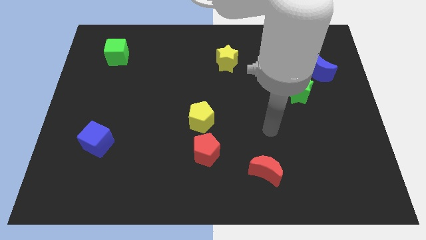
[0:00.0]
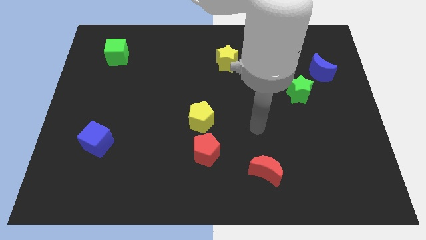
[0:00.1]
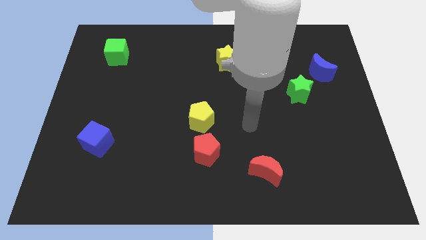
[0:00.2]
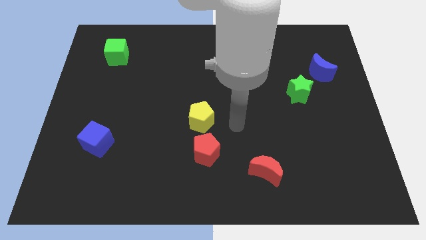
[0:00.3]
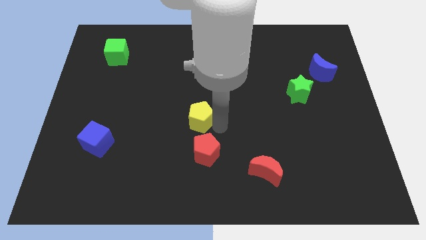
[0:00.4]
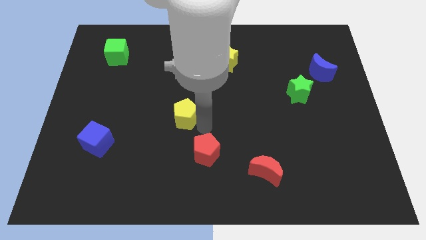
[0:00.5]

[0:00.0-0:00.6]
pull the red pentagon apart from the yellow pentagon

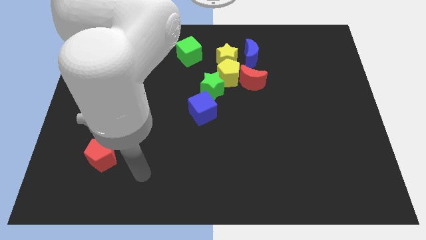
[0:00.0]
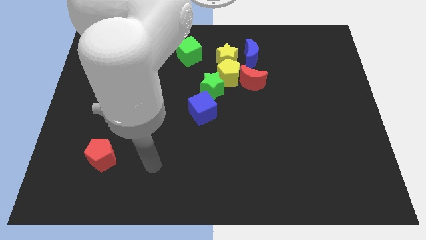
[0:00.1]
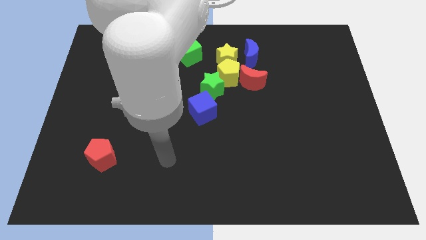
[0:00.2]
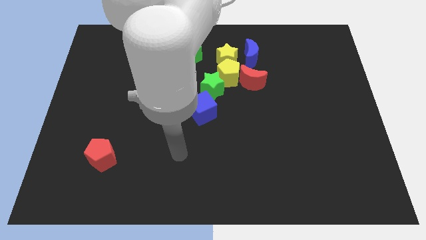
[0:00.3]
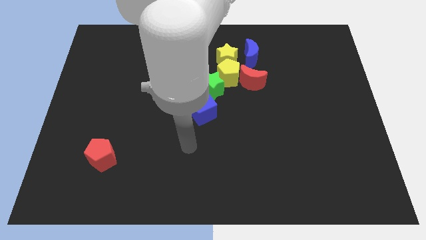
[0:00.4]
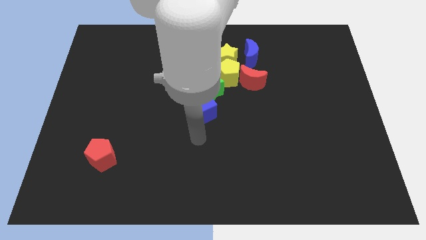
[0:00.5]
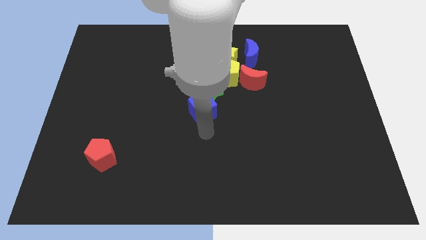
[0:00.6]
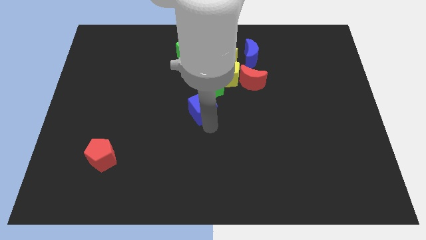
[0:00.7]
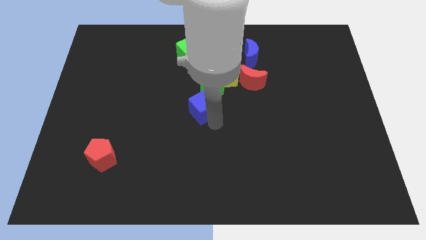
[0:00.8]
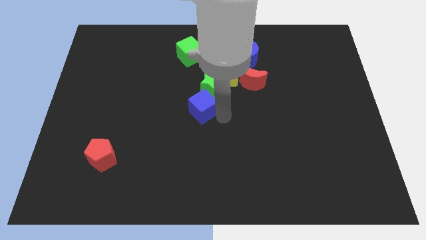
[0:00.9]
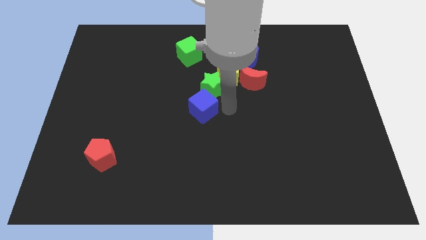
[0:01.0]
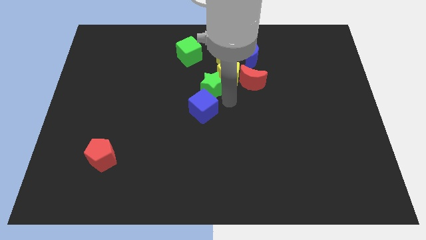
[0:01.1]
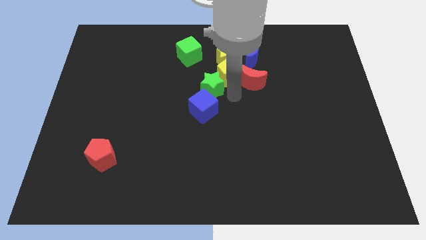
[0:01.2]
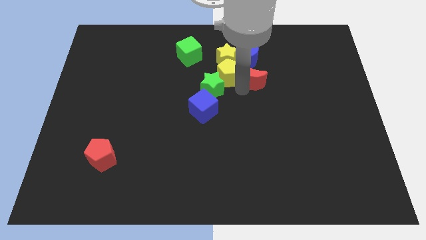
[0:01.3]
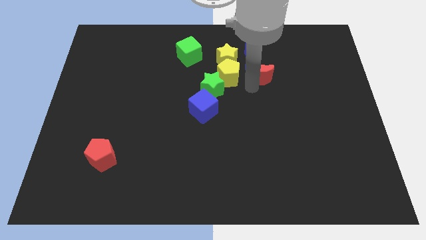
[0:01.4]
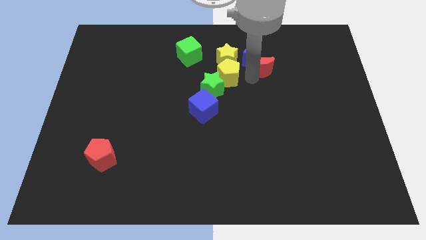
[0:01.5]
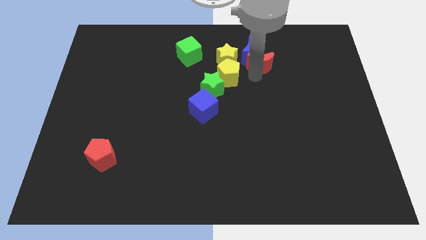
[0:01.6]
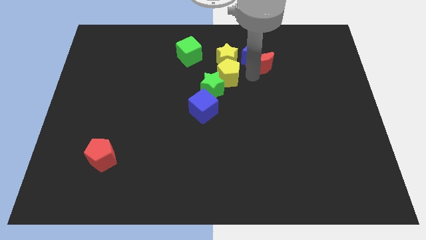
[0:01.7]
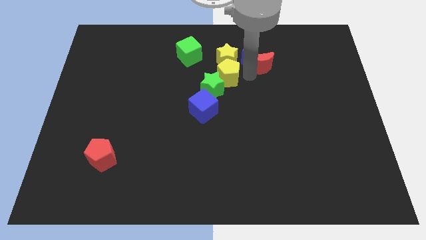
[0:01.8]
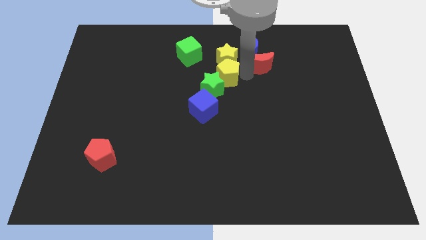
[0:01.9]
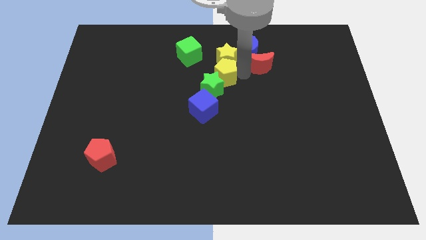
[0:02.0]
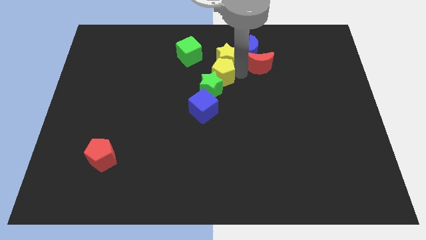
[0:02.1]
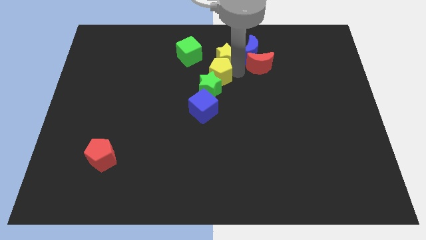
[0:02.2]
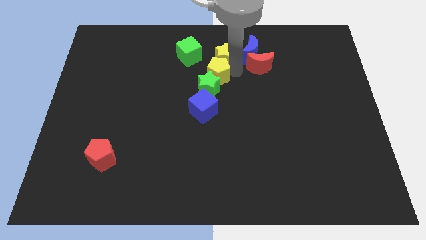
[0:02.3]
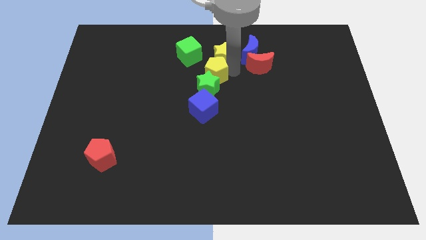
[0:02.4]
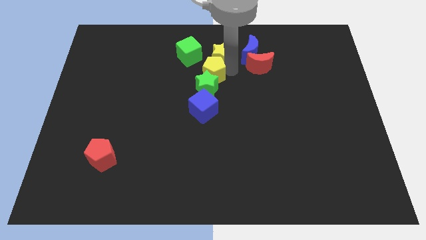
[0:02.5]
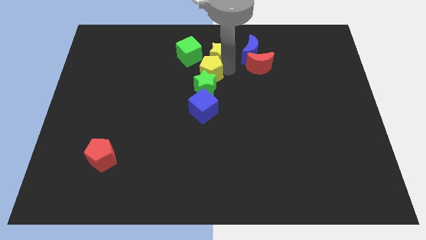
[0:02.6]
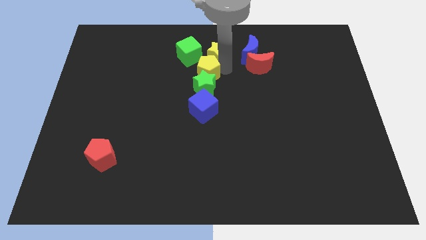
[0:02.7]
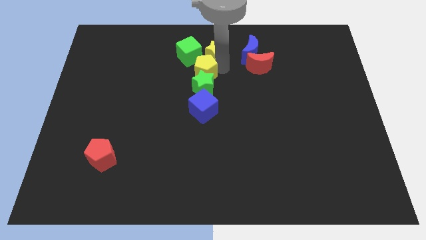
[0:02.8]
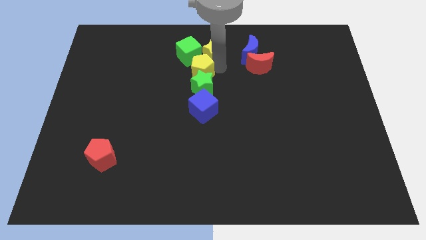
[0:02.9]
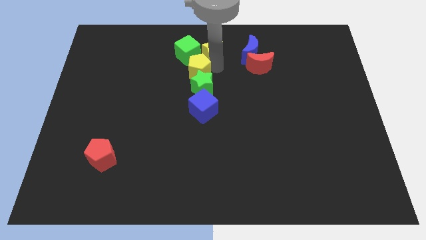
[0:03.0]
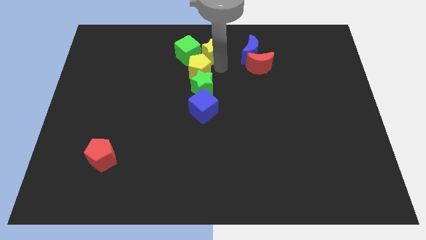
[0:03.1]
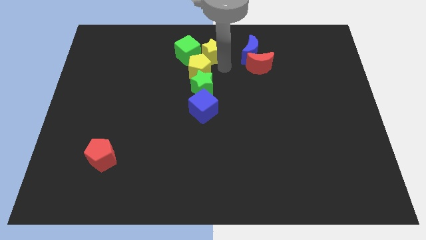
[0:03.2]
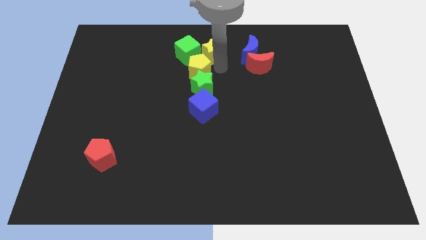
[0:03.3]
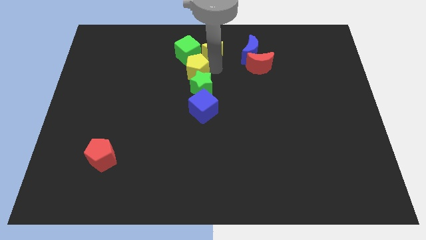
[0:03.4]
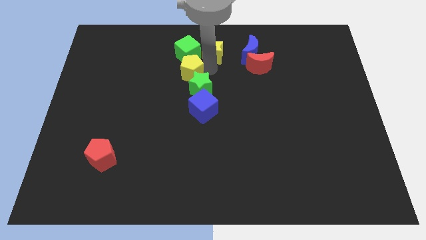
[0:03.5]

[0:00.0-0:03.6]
pull the yellow pentagon apart from the clump

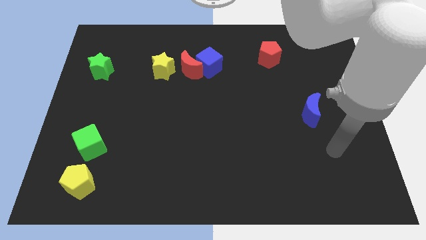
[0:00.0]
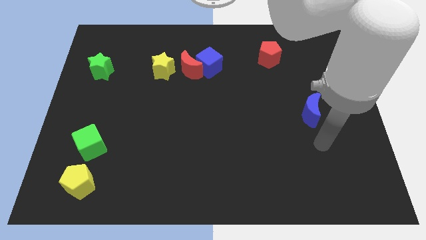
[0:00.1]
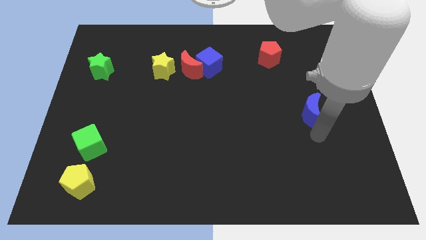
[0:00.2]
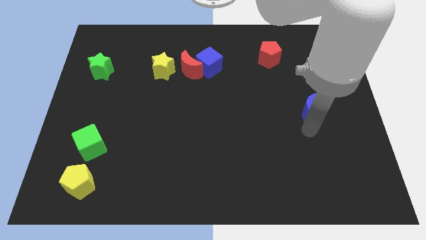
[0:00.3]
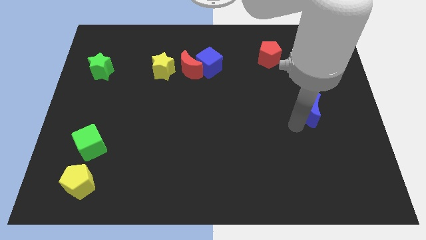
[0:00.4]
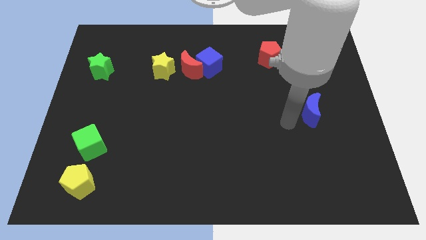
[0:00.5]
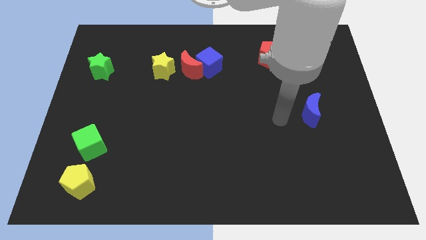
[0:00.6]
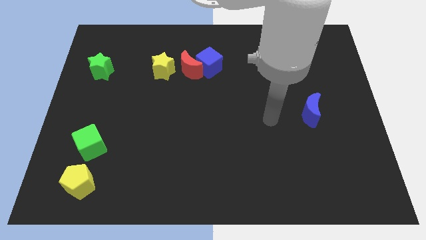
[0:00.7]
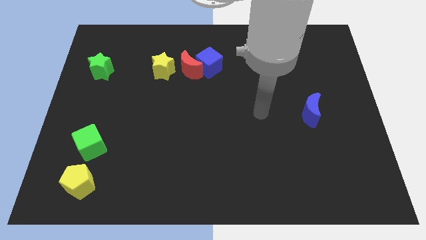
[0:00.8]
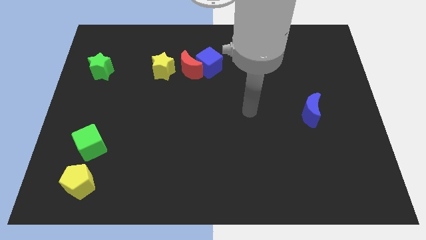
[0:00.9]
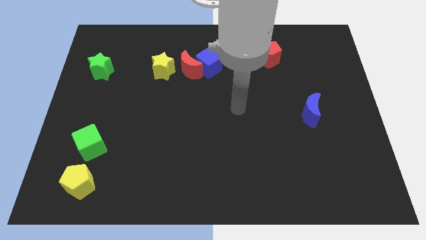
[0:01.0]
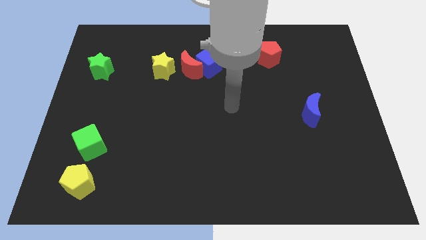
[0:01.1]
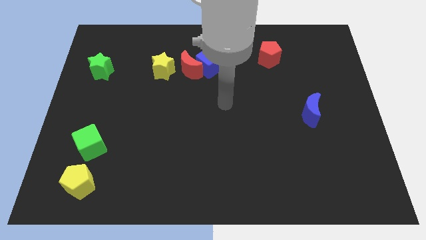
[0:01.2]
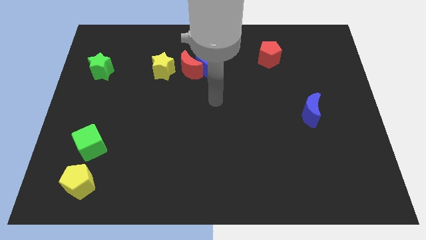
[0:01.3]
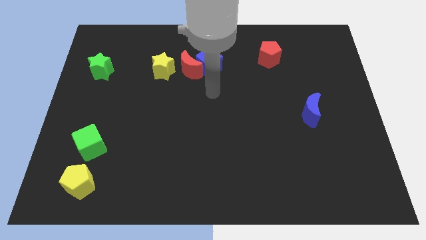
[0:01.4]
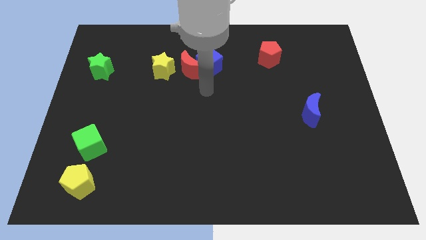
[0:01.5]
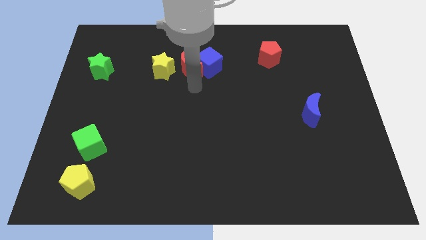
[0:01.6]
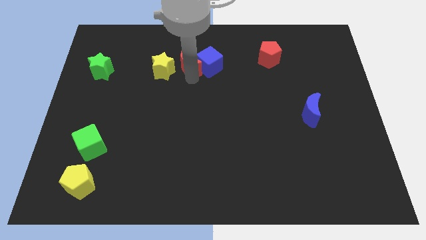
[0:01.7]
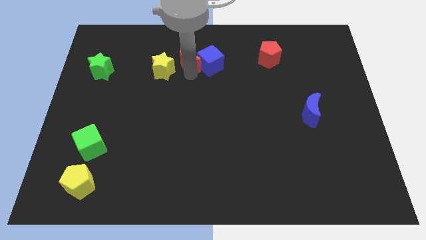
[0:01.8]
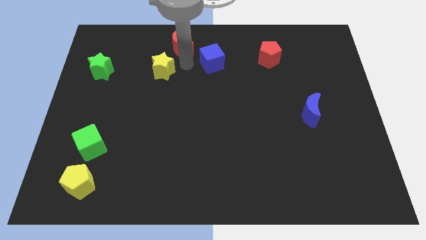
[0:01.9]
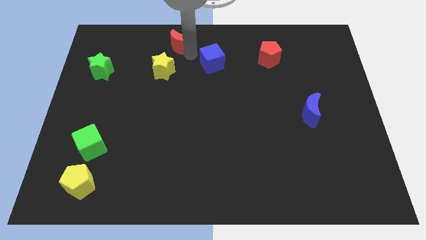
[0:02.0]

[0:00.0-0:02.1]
pull the blue cube apart from the red moon

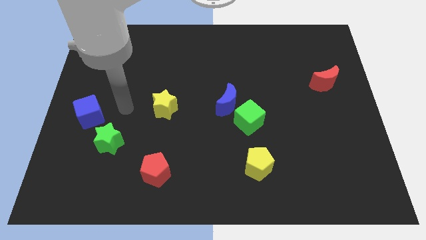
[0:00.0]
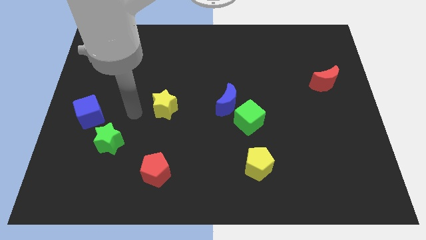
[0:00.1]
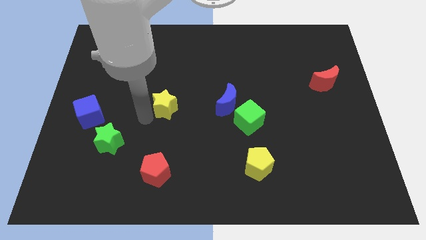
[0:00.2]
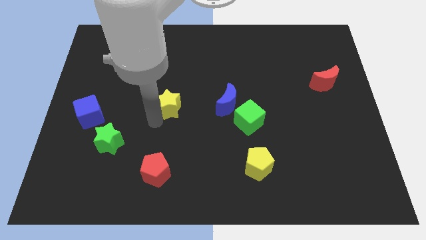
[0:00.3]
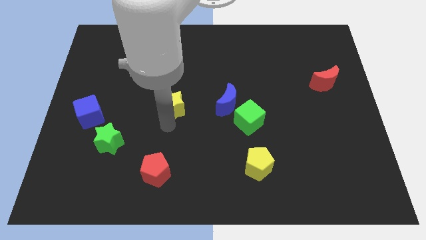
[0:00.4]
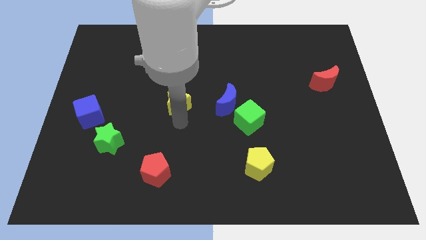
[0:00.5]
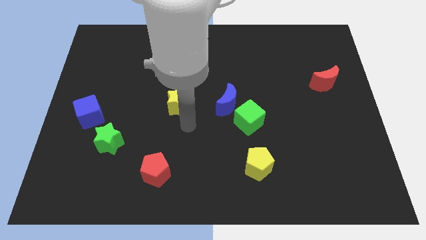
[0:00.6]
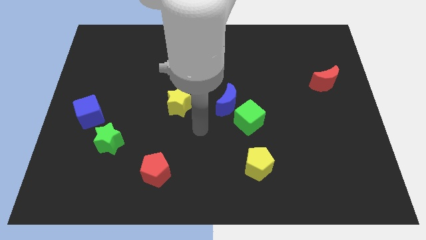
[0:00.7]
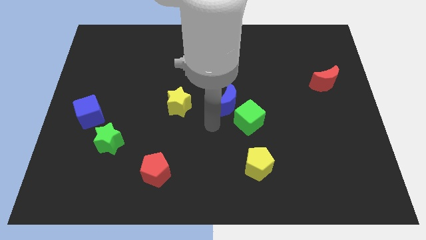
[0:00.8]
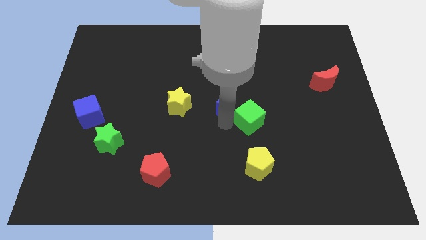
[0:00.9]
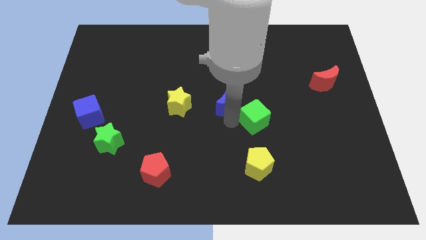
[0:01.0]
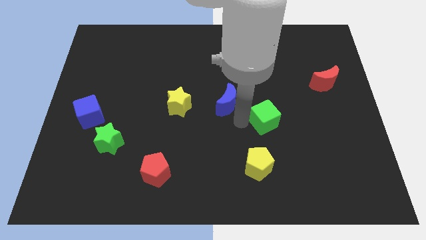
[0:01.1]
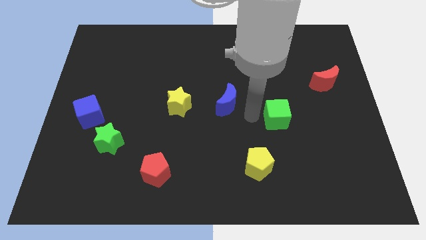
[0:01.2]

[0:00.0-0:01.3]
separate the blue moon from the green cube

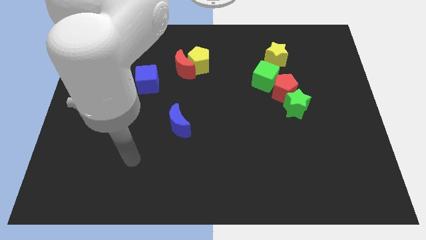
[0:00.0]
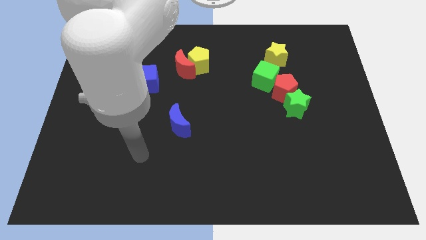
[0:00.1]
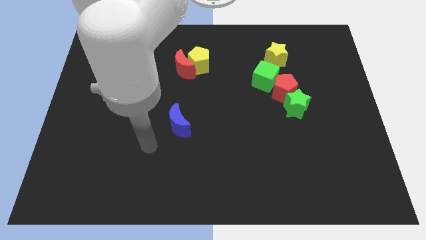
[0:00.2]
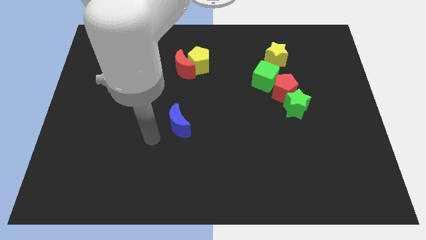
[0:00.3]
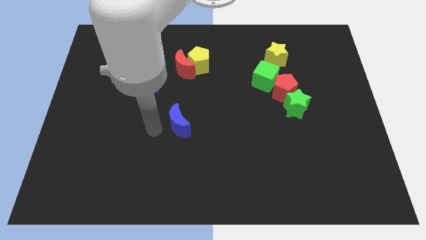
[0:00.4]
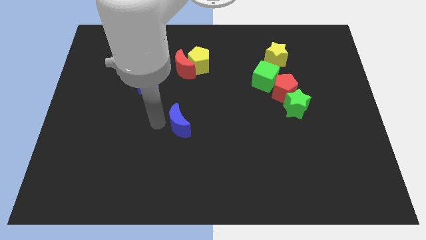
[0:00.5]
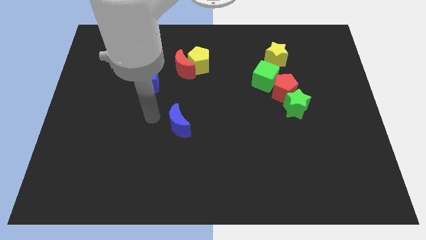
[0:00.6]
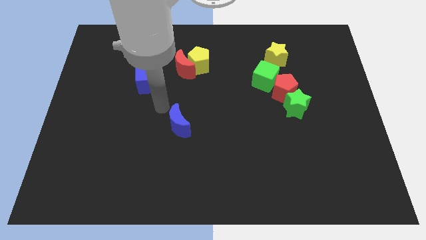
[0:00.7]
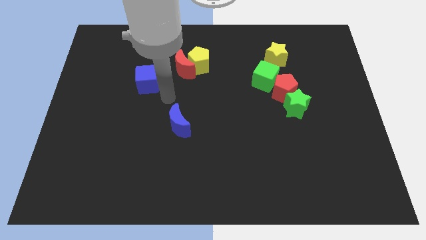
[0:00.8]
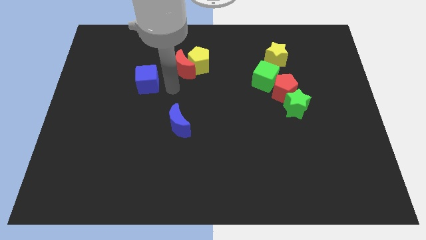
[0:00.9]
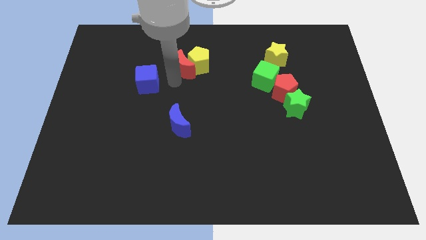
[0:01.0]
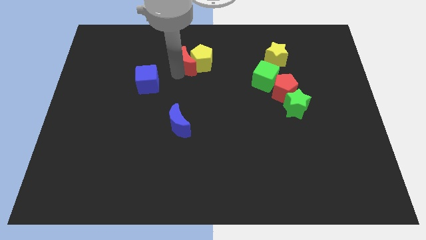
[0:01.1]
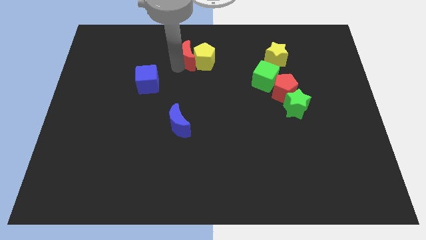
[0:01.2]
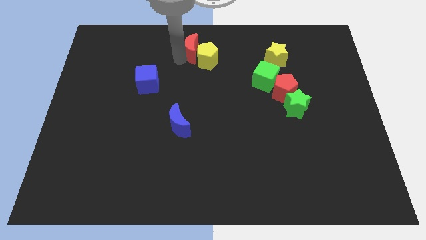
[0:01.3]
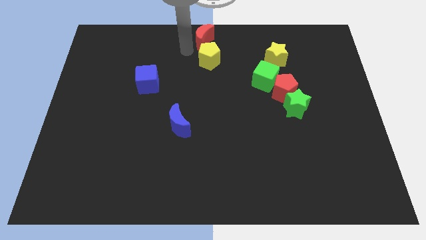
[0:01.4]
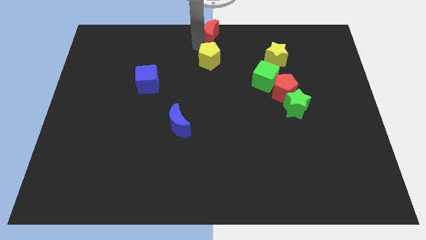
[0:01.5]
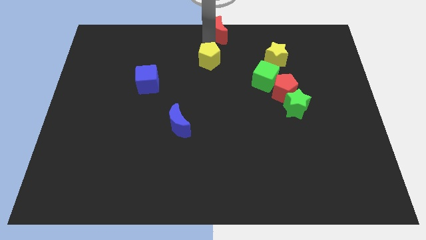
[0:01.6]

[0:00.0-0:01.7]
separate the yellow pentagon from the red moon

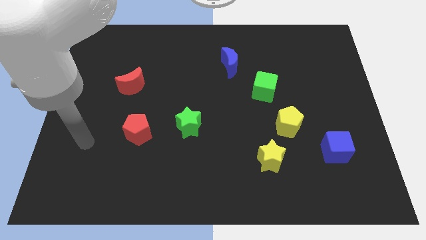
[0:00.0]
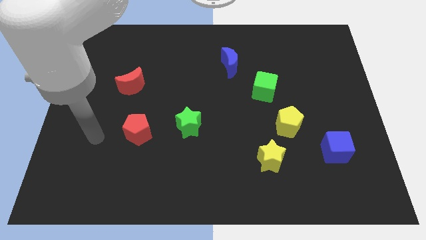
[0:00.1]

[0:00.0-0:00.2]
separate the yellow star from the yellow pentagon
